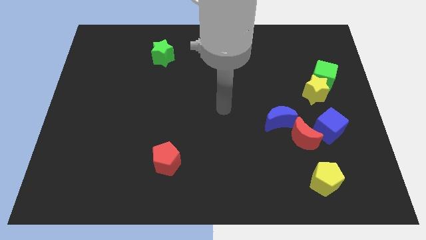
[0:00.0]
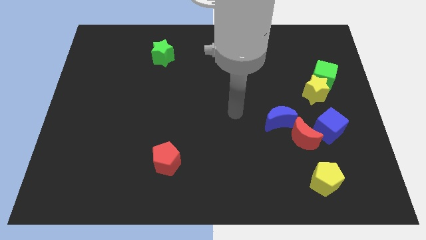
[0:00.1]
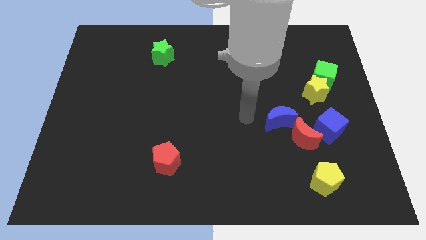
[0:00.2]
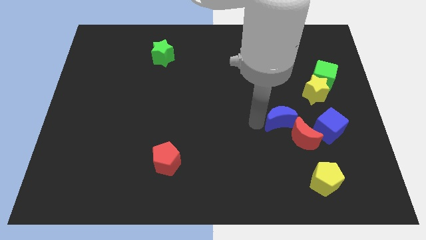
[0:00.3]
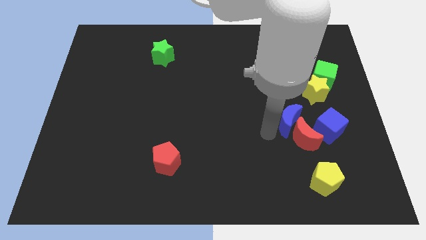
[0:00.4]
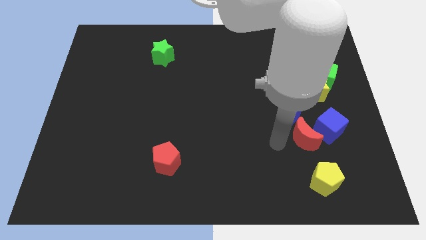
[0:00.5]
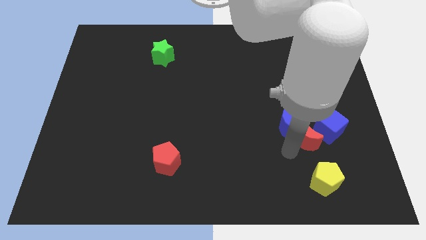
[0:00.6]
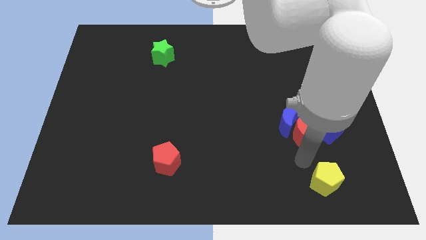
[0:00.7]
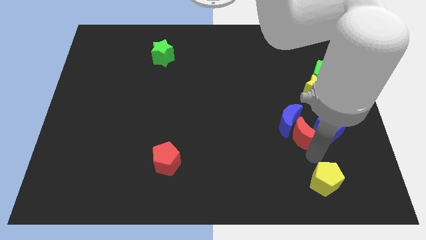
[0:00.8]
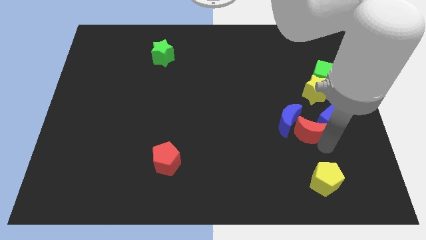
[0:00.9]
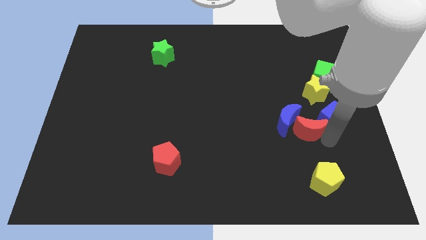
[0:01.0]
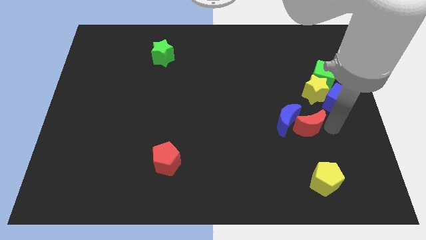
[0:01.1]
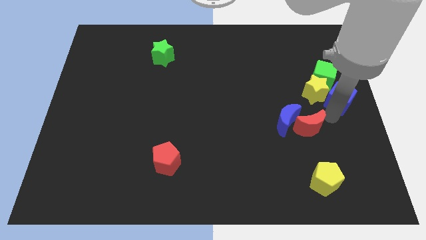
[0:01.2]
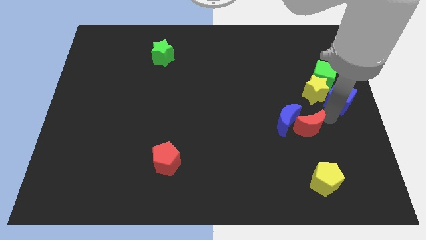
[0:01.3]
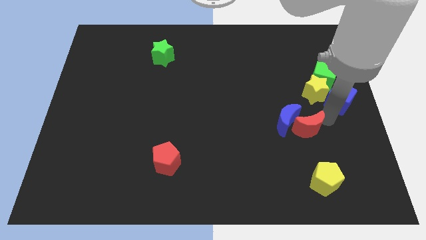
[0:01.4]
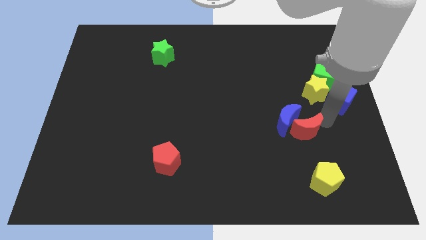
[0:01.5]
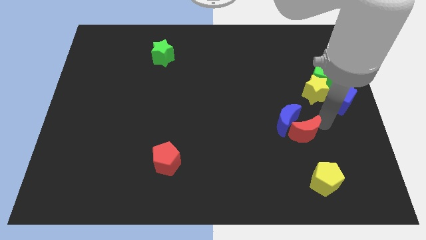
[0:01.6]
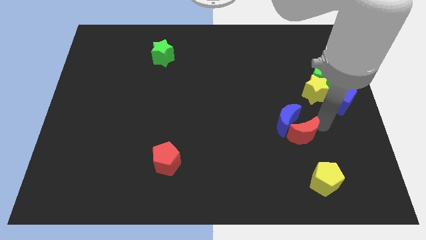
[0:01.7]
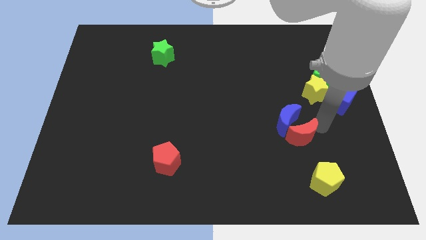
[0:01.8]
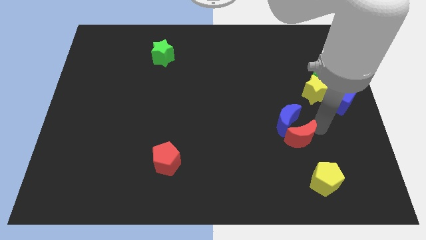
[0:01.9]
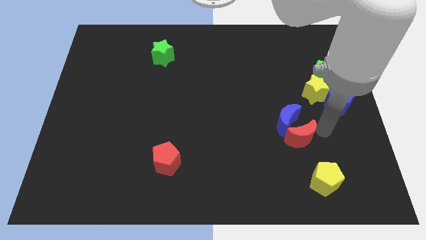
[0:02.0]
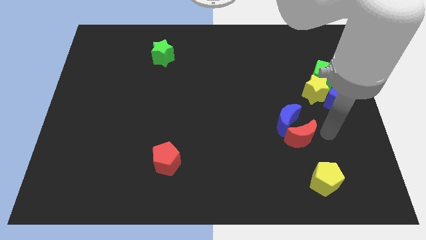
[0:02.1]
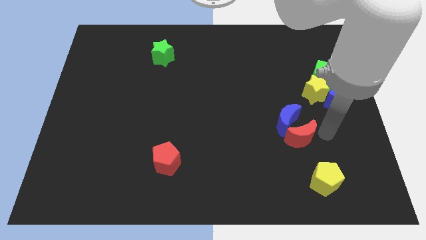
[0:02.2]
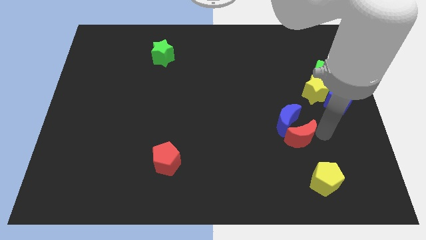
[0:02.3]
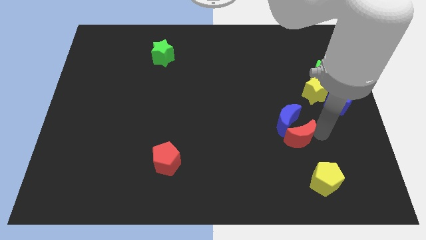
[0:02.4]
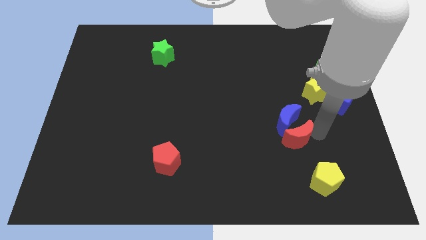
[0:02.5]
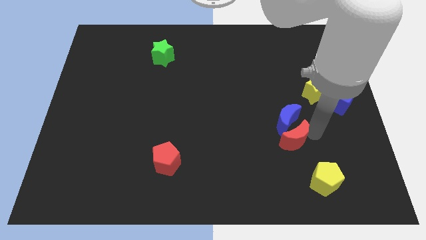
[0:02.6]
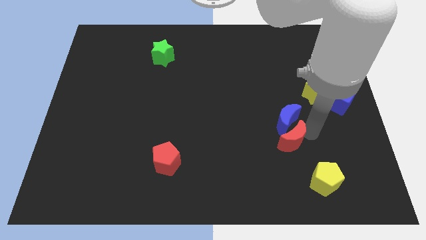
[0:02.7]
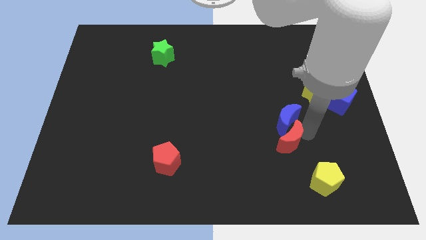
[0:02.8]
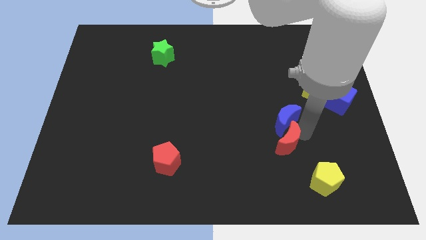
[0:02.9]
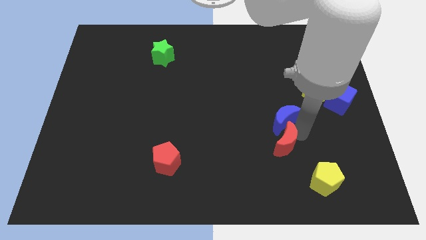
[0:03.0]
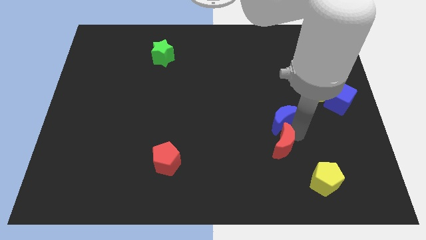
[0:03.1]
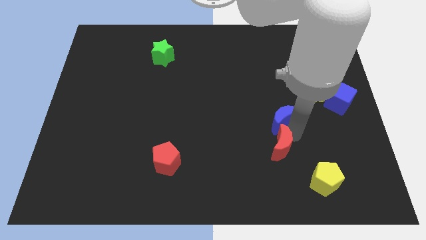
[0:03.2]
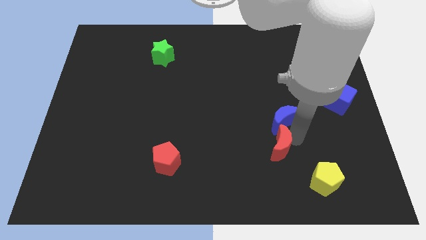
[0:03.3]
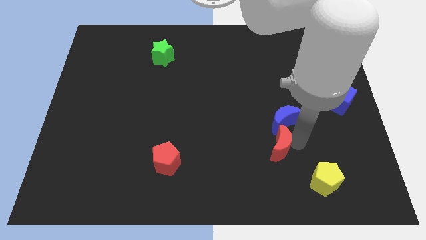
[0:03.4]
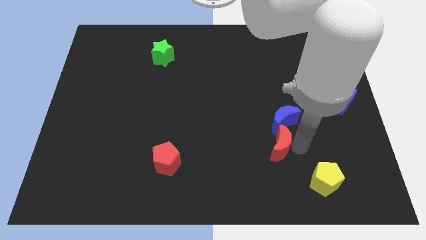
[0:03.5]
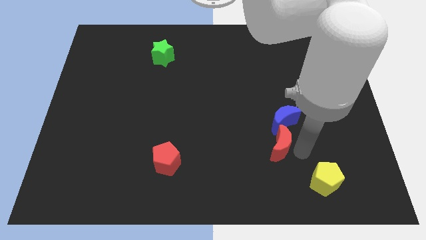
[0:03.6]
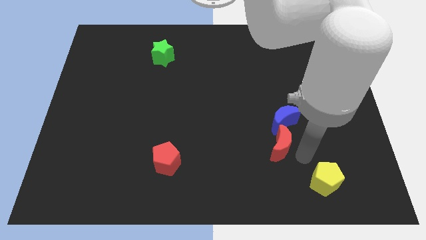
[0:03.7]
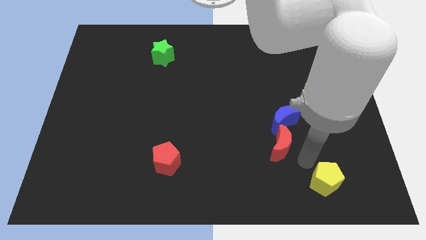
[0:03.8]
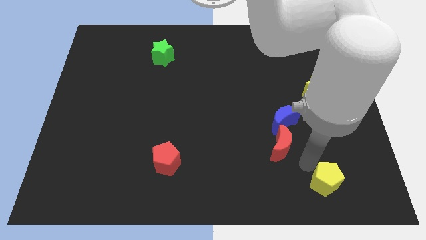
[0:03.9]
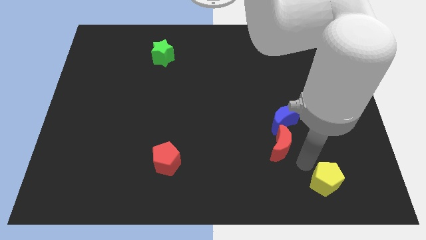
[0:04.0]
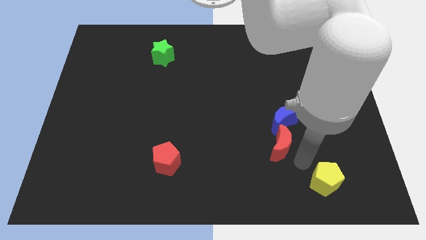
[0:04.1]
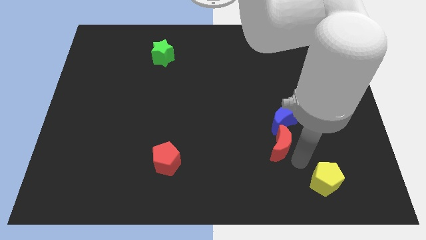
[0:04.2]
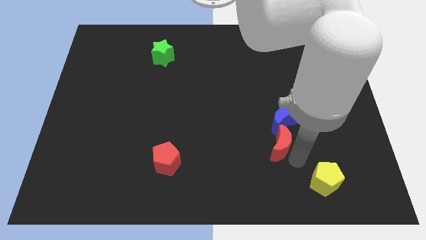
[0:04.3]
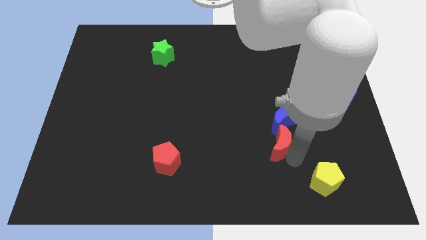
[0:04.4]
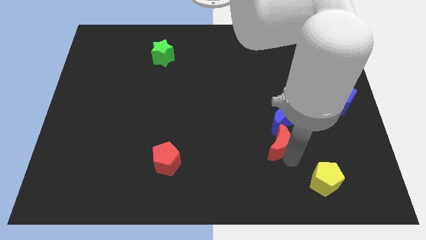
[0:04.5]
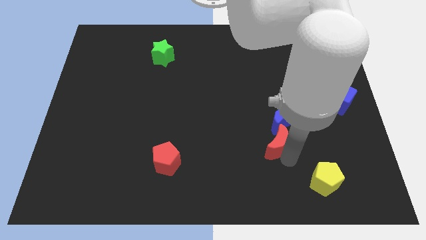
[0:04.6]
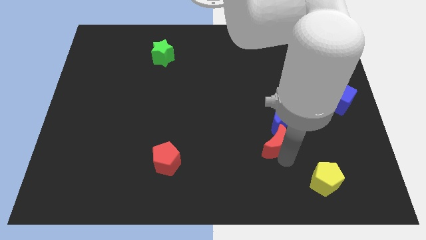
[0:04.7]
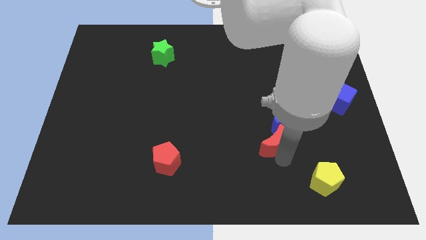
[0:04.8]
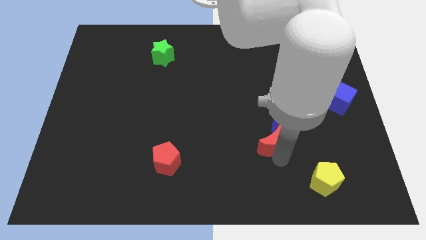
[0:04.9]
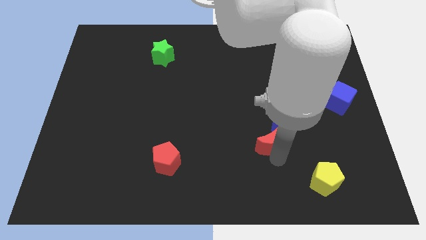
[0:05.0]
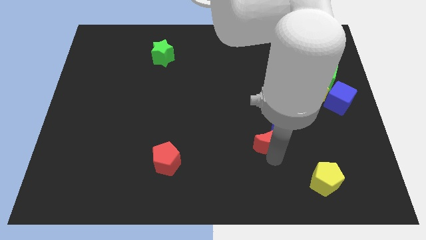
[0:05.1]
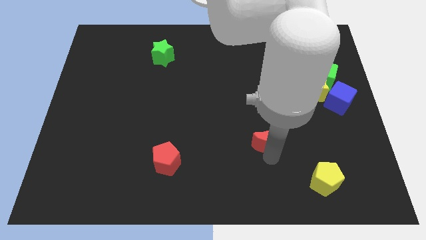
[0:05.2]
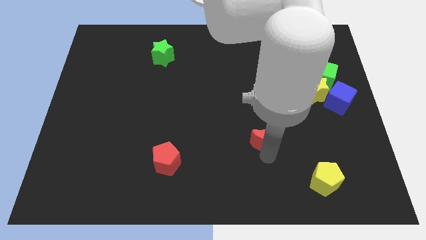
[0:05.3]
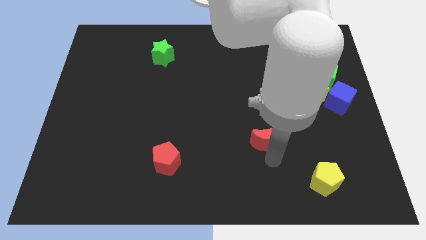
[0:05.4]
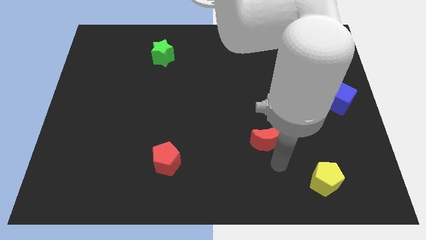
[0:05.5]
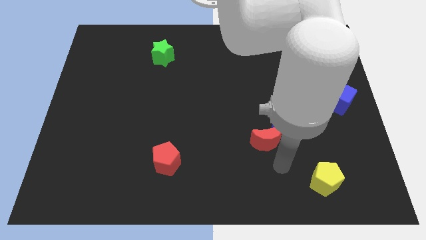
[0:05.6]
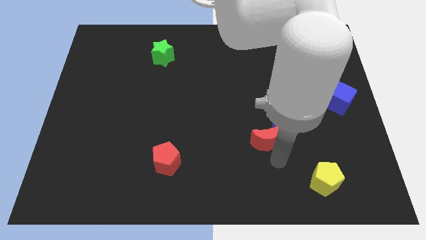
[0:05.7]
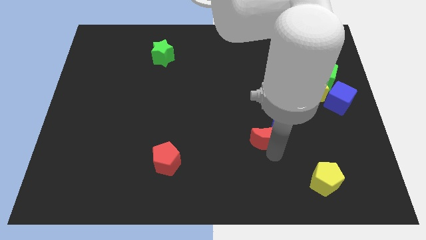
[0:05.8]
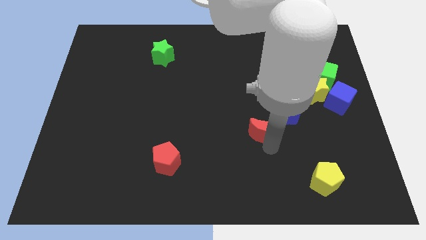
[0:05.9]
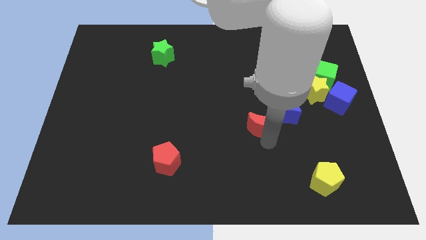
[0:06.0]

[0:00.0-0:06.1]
push the red moon slightly up and then left

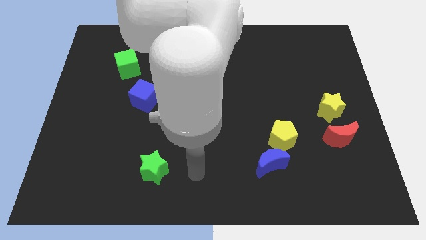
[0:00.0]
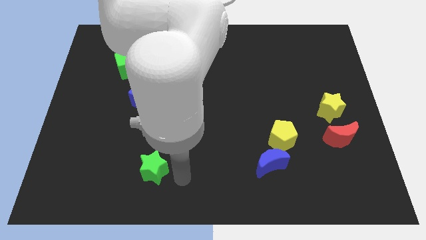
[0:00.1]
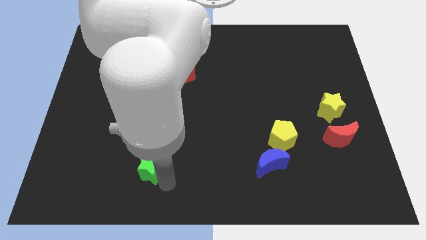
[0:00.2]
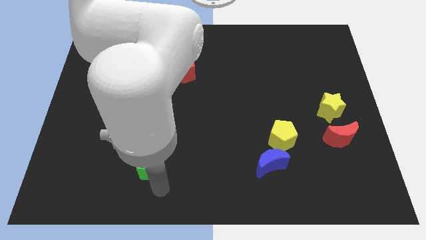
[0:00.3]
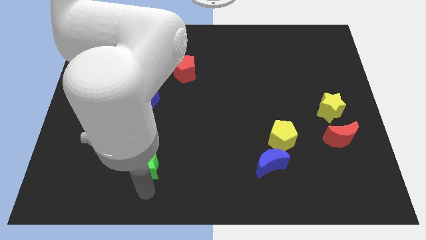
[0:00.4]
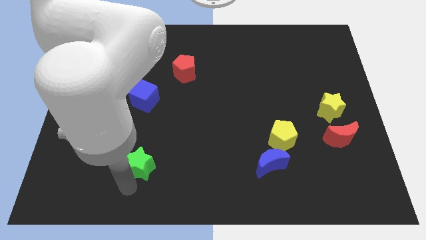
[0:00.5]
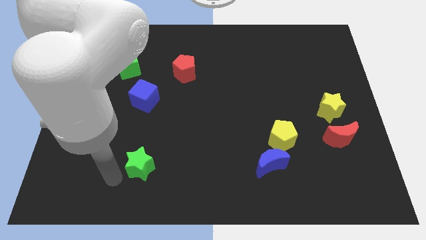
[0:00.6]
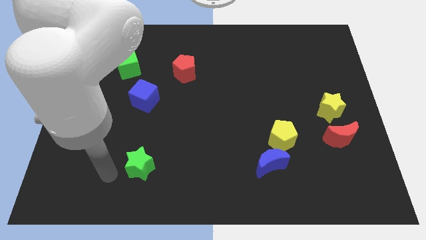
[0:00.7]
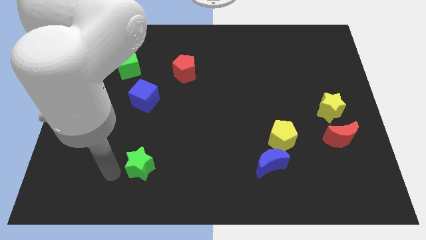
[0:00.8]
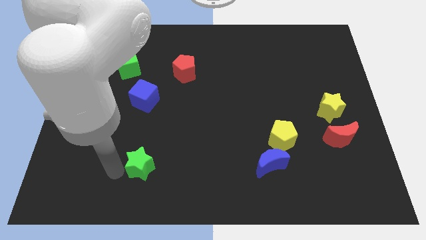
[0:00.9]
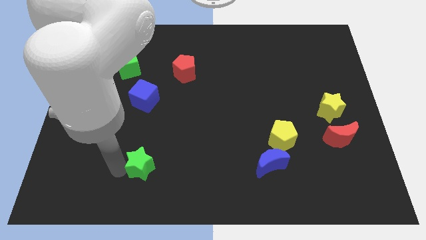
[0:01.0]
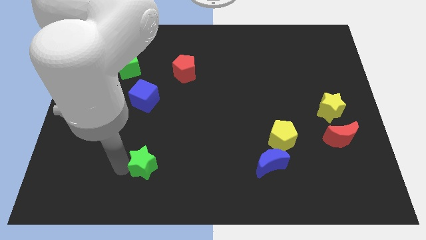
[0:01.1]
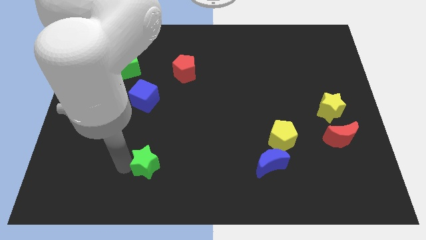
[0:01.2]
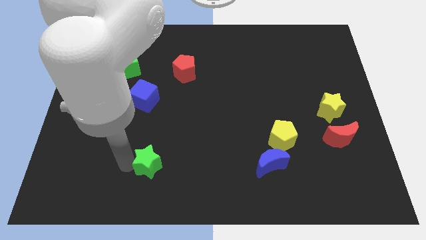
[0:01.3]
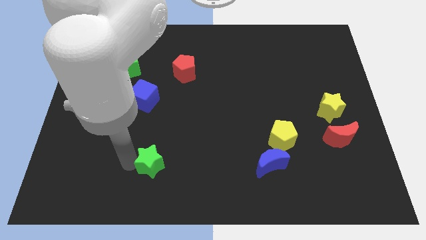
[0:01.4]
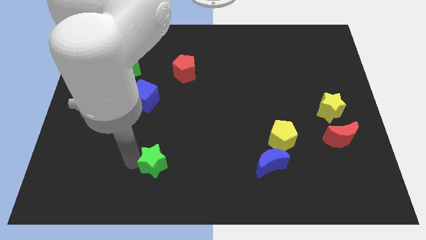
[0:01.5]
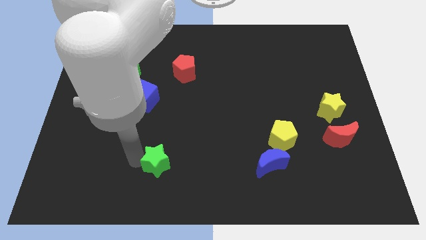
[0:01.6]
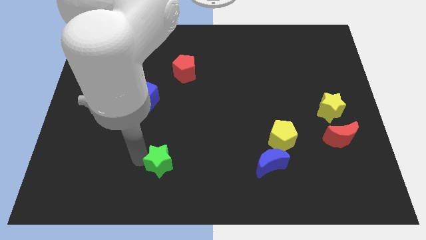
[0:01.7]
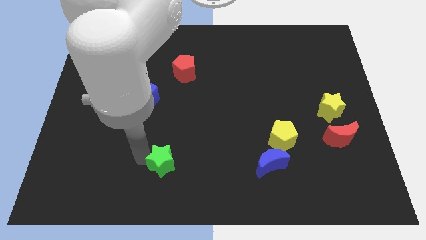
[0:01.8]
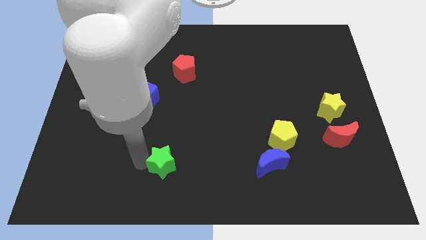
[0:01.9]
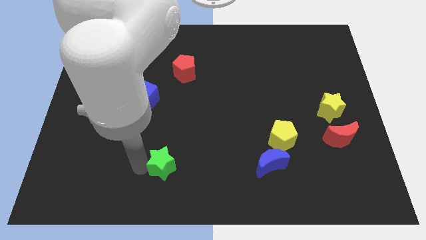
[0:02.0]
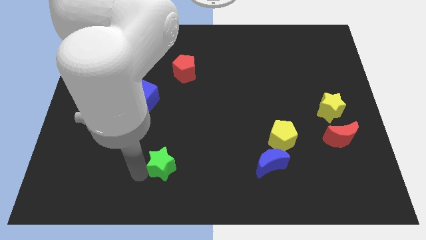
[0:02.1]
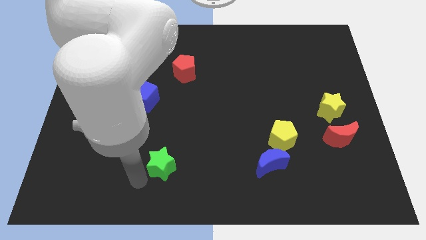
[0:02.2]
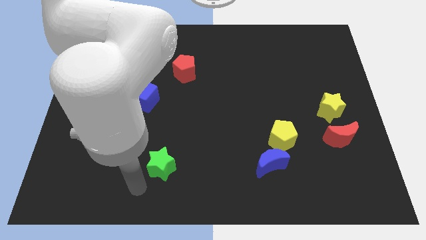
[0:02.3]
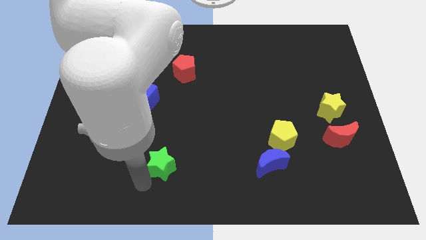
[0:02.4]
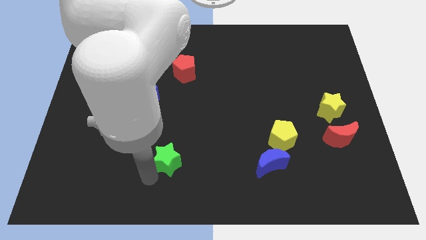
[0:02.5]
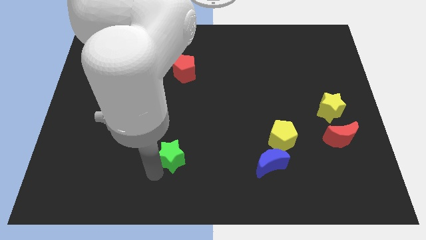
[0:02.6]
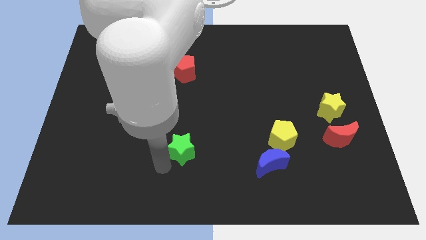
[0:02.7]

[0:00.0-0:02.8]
push the green star upwards and to the right somewhat
